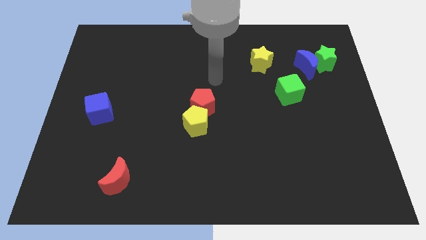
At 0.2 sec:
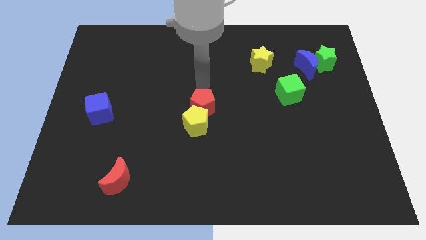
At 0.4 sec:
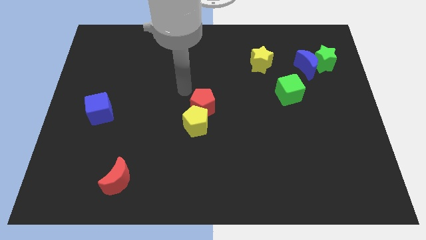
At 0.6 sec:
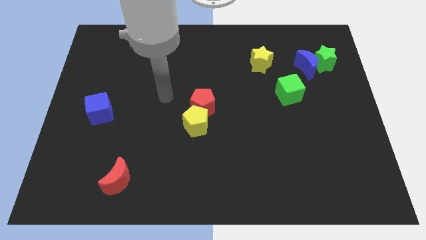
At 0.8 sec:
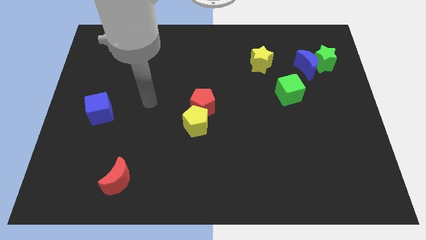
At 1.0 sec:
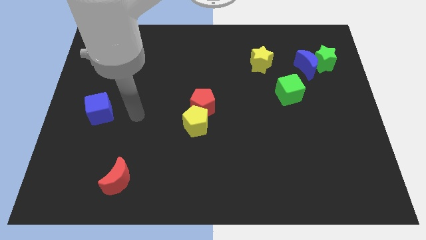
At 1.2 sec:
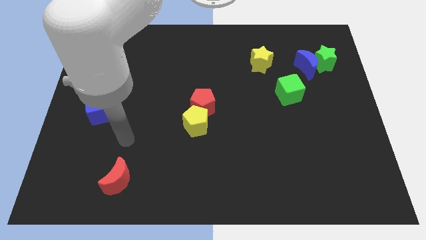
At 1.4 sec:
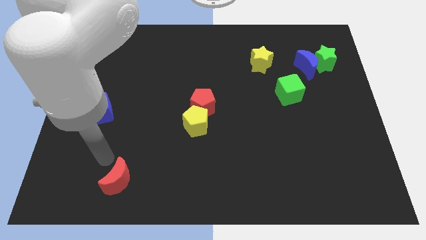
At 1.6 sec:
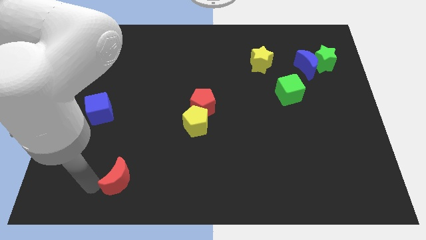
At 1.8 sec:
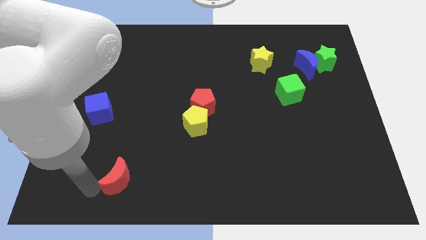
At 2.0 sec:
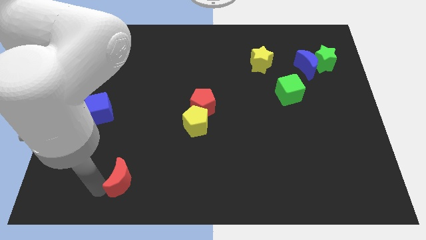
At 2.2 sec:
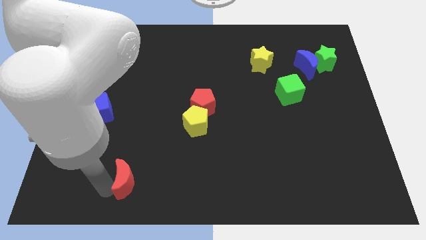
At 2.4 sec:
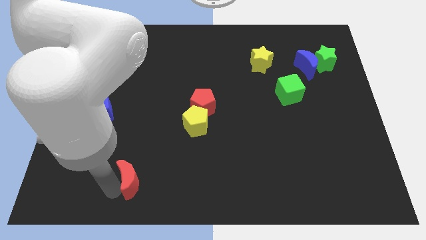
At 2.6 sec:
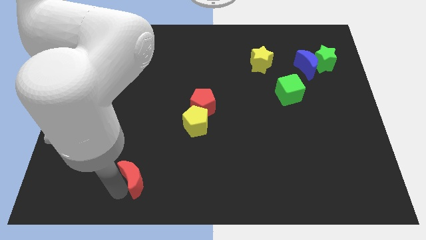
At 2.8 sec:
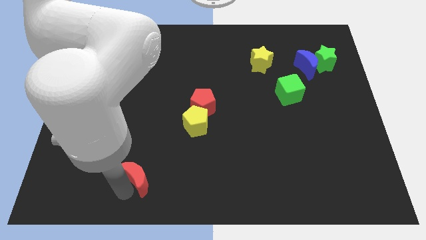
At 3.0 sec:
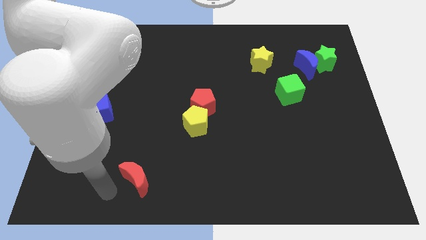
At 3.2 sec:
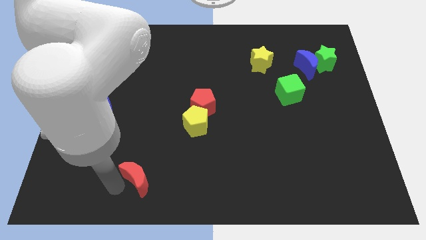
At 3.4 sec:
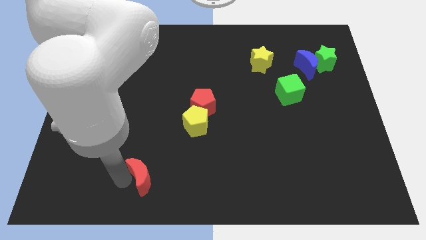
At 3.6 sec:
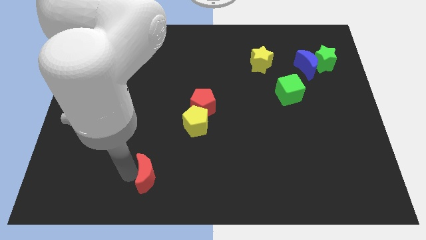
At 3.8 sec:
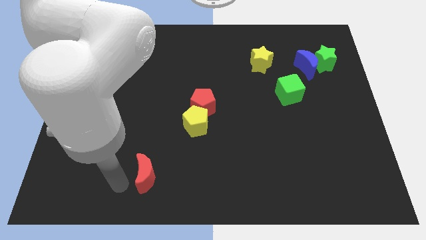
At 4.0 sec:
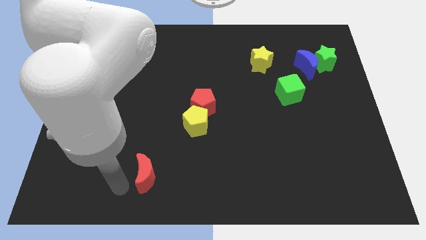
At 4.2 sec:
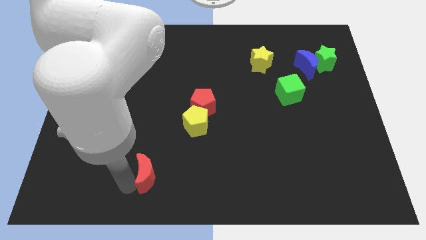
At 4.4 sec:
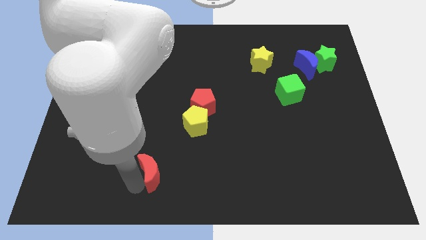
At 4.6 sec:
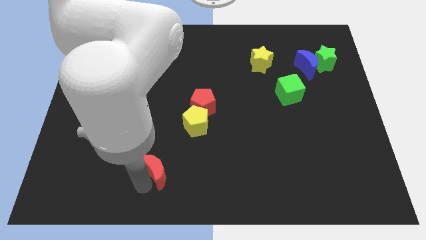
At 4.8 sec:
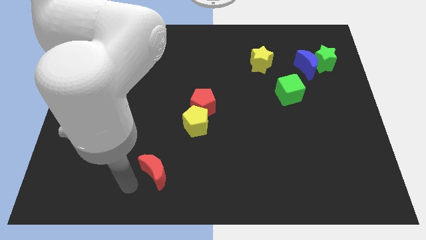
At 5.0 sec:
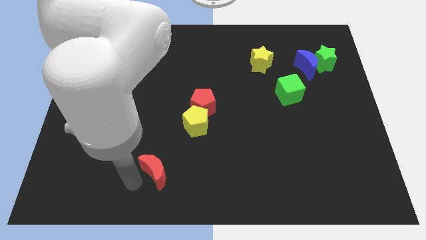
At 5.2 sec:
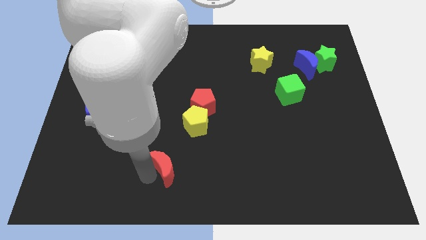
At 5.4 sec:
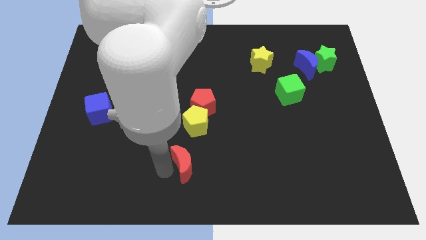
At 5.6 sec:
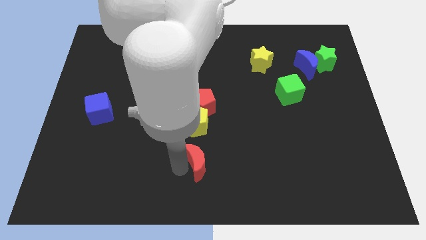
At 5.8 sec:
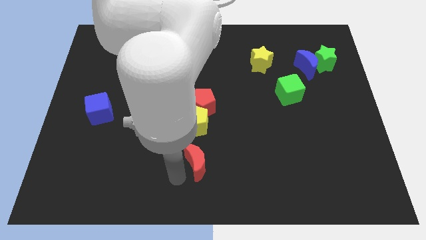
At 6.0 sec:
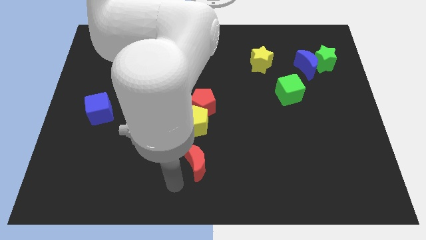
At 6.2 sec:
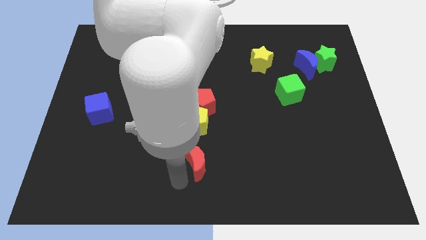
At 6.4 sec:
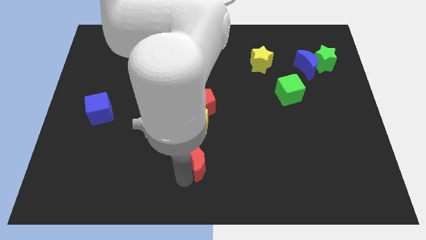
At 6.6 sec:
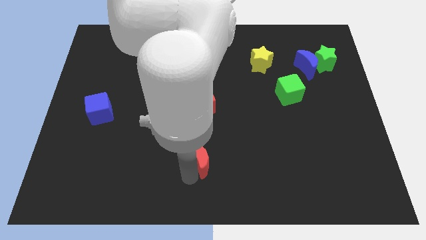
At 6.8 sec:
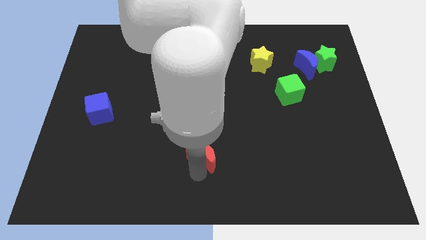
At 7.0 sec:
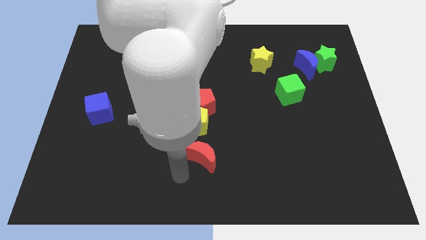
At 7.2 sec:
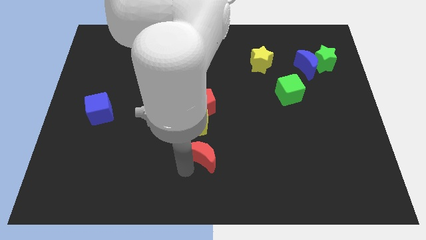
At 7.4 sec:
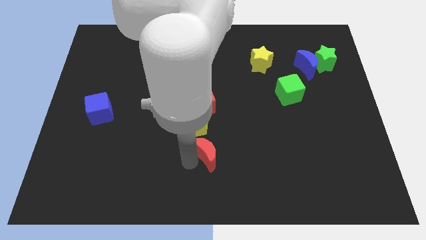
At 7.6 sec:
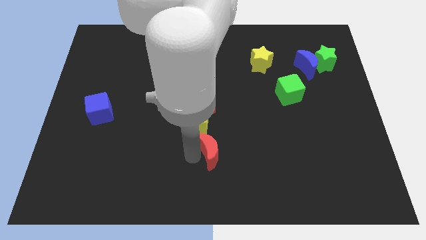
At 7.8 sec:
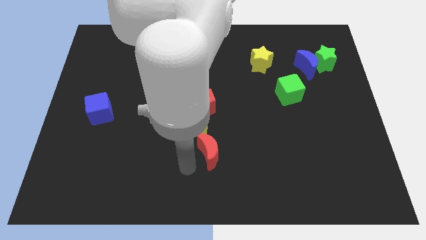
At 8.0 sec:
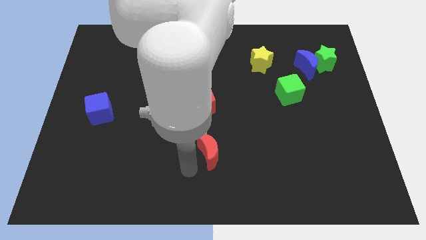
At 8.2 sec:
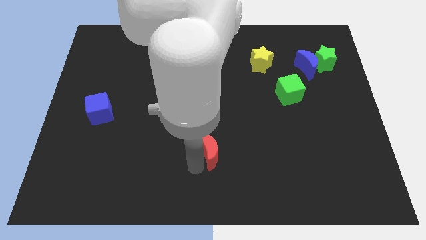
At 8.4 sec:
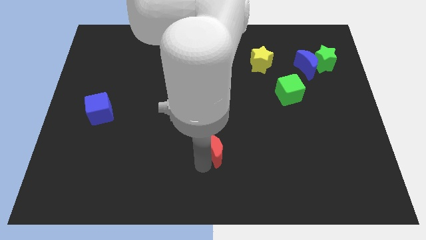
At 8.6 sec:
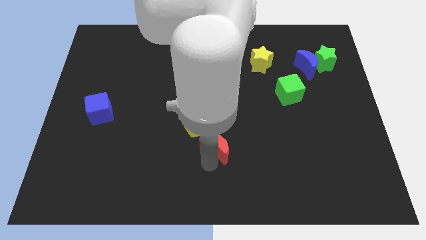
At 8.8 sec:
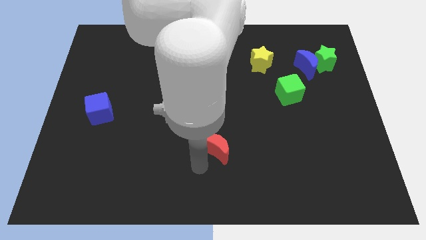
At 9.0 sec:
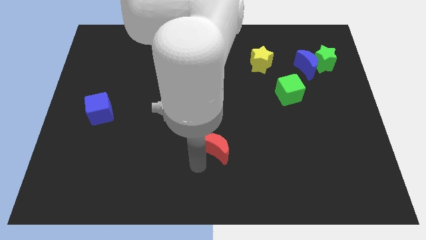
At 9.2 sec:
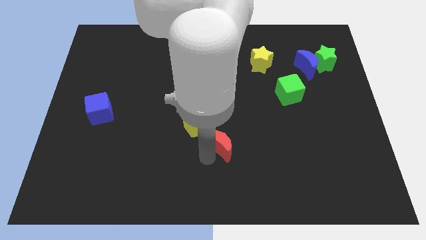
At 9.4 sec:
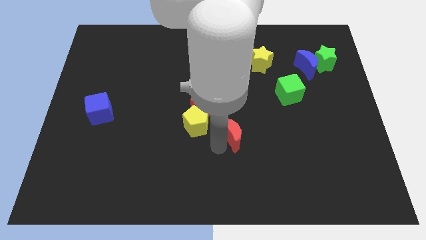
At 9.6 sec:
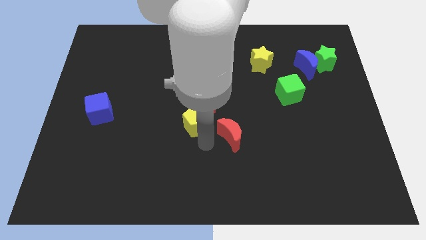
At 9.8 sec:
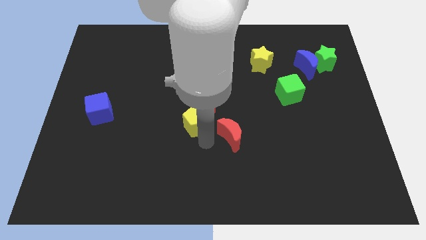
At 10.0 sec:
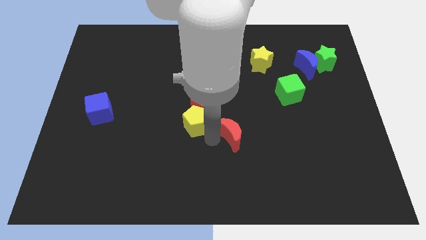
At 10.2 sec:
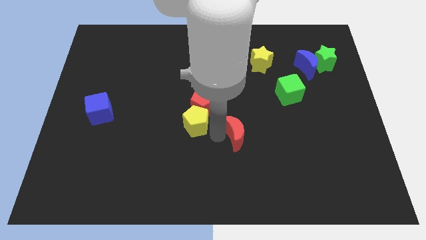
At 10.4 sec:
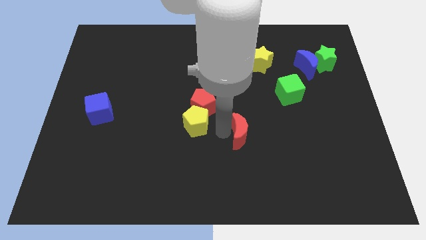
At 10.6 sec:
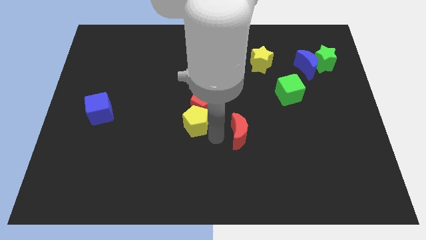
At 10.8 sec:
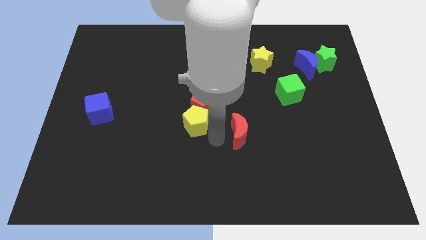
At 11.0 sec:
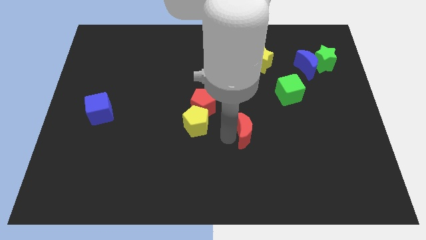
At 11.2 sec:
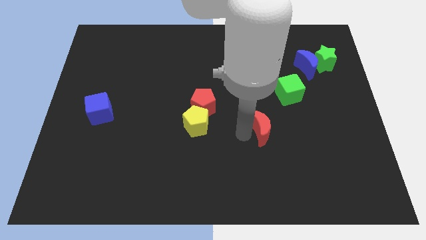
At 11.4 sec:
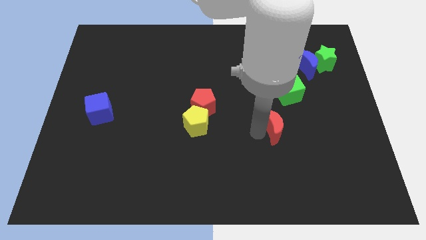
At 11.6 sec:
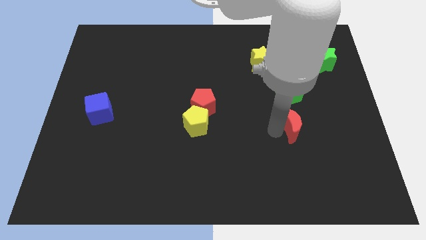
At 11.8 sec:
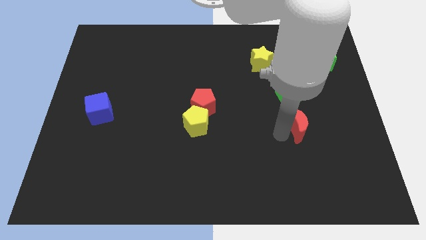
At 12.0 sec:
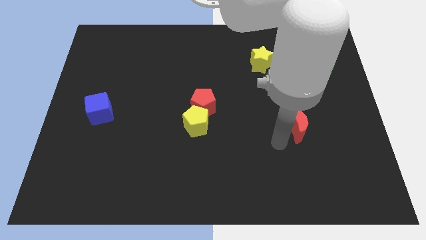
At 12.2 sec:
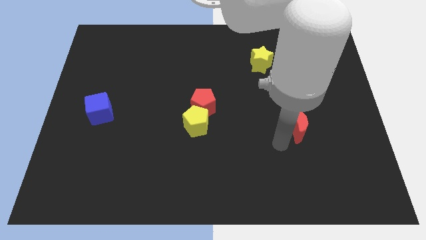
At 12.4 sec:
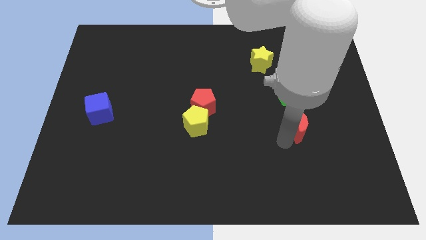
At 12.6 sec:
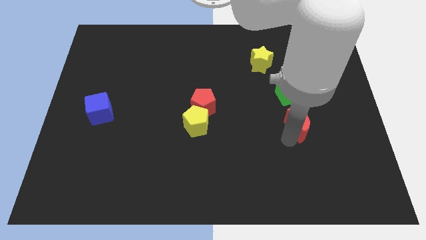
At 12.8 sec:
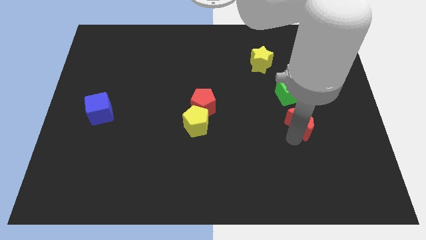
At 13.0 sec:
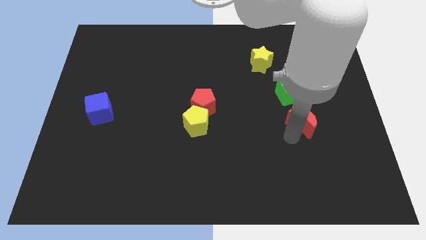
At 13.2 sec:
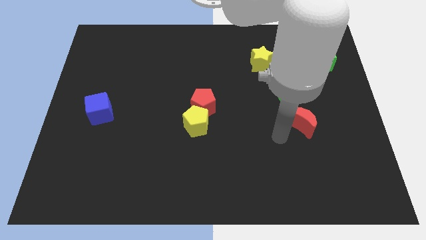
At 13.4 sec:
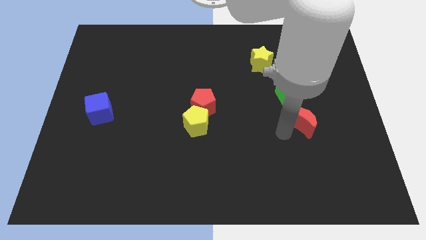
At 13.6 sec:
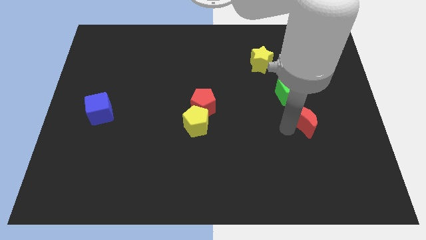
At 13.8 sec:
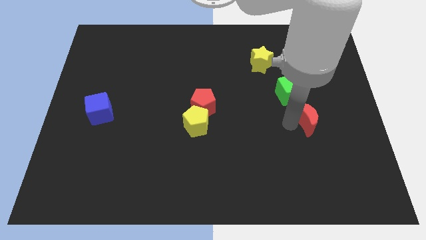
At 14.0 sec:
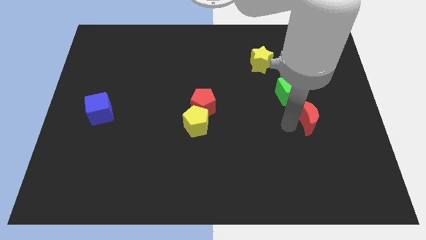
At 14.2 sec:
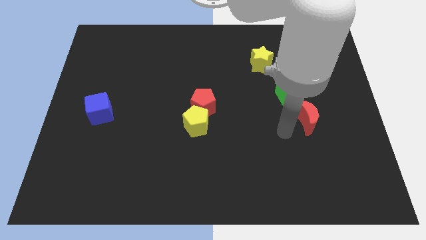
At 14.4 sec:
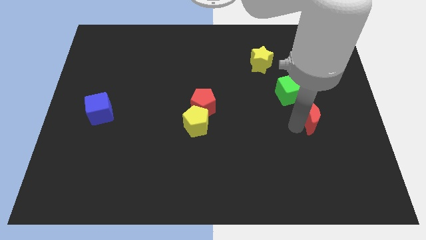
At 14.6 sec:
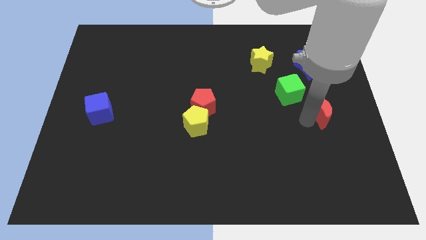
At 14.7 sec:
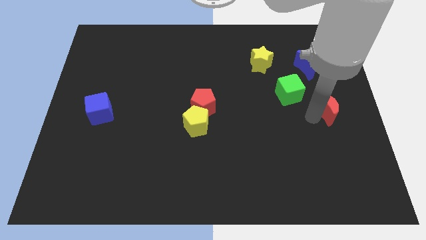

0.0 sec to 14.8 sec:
slide the red moon to the center right
